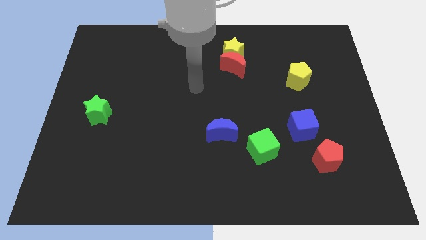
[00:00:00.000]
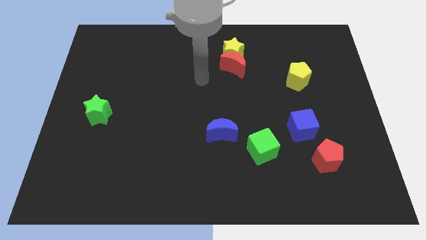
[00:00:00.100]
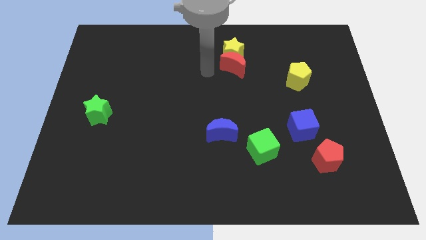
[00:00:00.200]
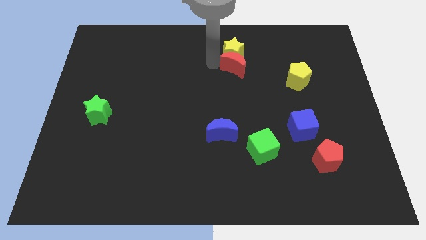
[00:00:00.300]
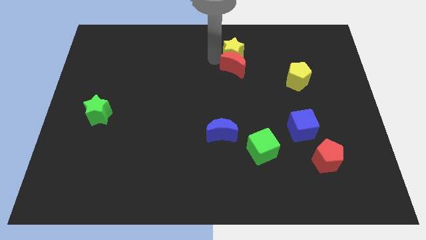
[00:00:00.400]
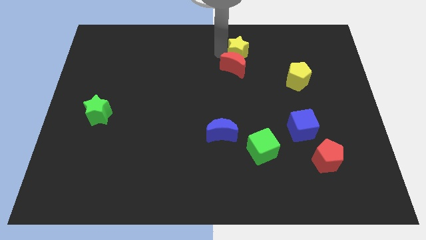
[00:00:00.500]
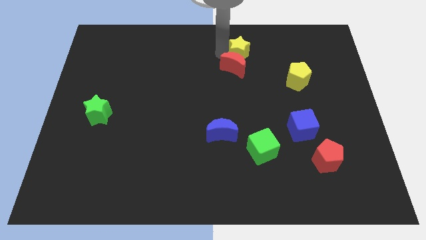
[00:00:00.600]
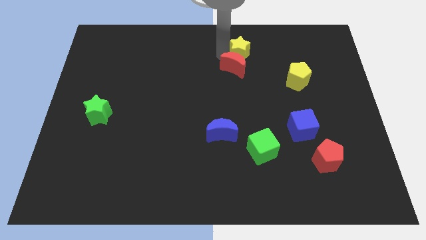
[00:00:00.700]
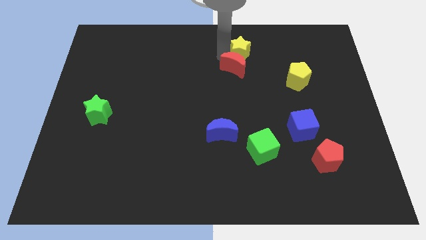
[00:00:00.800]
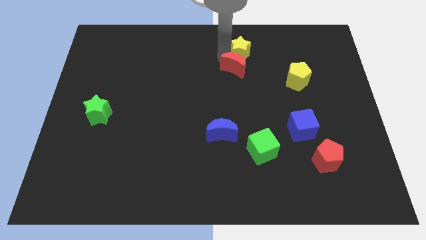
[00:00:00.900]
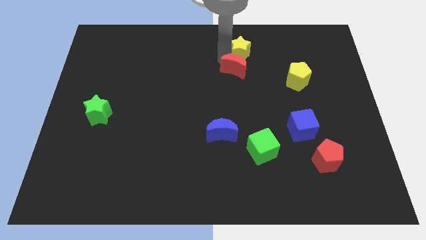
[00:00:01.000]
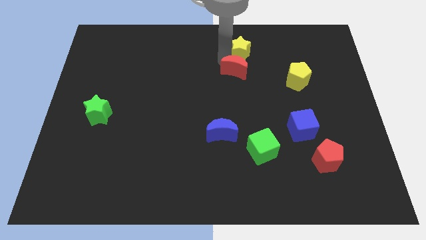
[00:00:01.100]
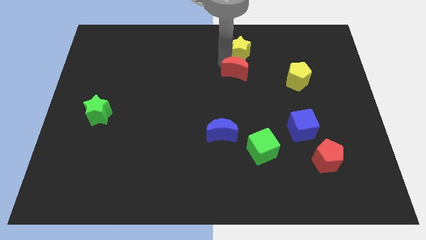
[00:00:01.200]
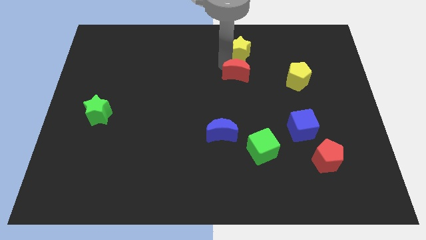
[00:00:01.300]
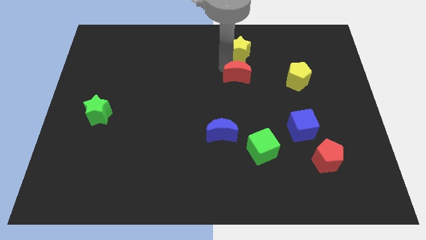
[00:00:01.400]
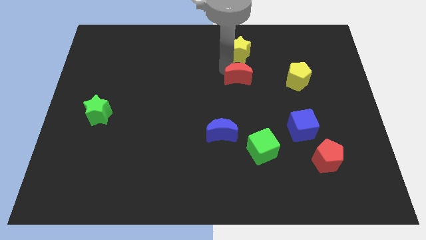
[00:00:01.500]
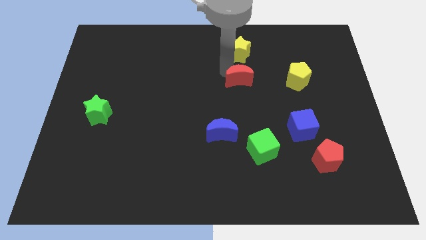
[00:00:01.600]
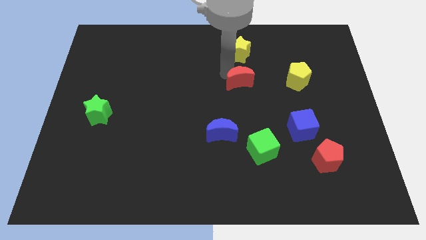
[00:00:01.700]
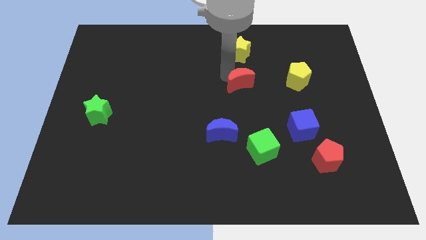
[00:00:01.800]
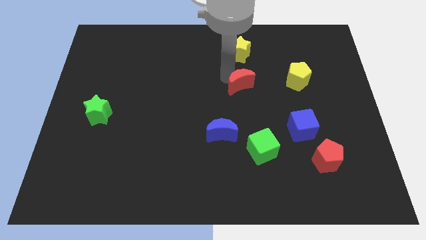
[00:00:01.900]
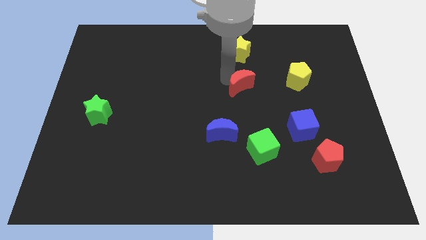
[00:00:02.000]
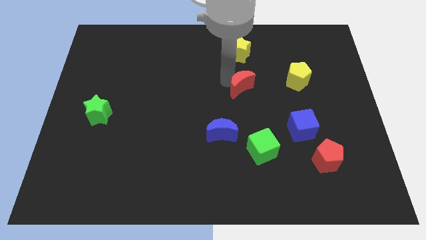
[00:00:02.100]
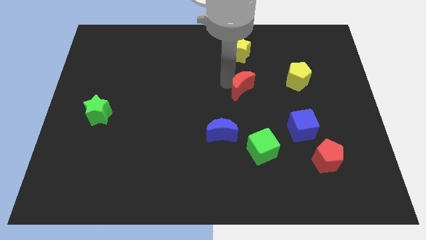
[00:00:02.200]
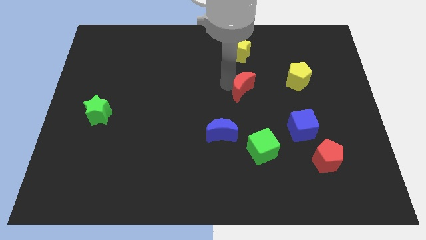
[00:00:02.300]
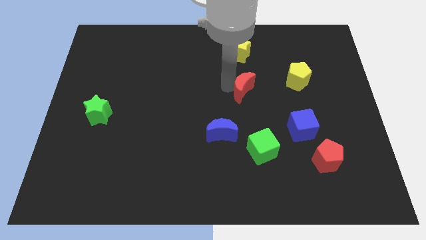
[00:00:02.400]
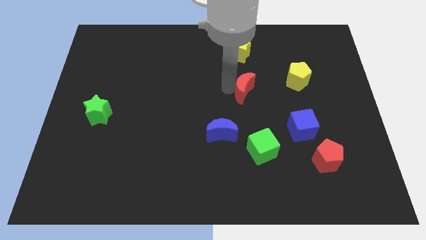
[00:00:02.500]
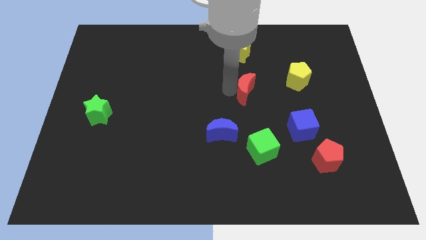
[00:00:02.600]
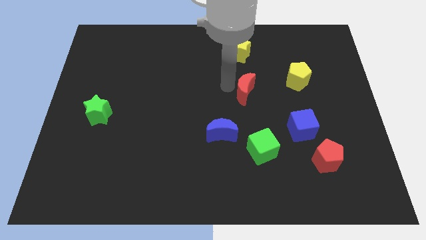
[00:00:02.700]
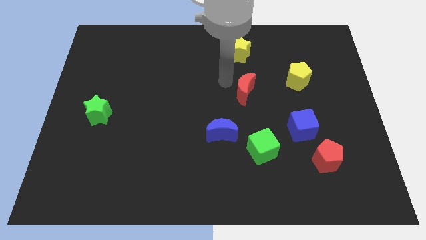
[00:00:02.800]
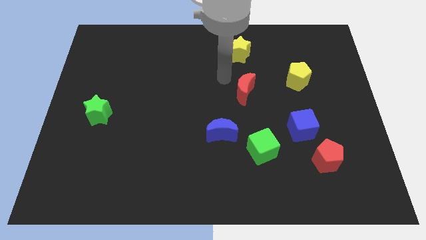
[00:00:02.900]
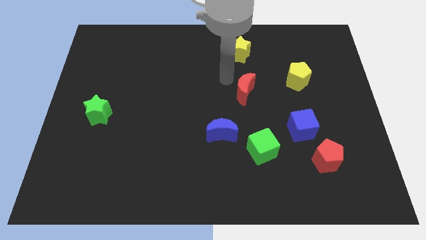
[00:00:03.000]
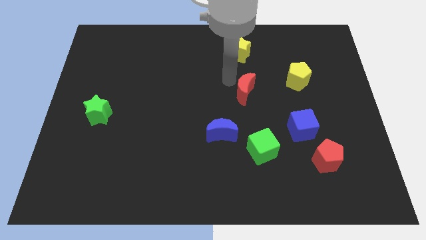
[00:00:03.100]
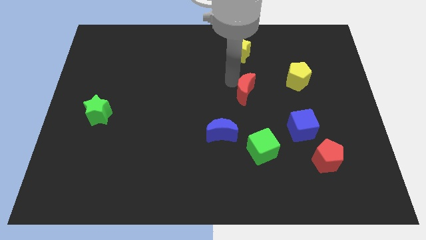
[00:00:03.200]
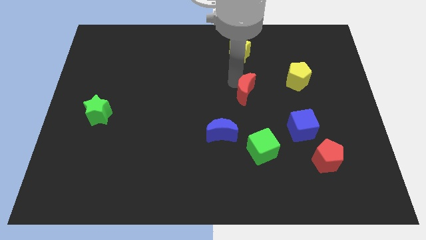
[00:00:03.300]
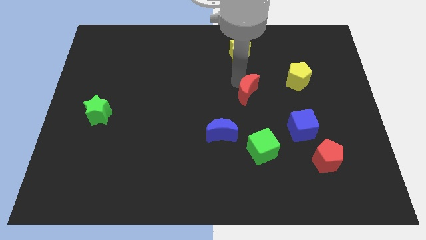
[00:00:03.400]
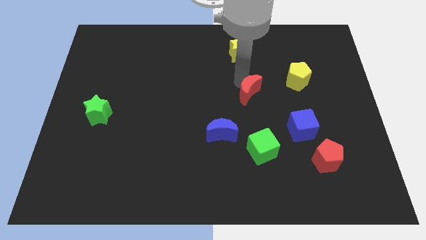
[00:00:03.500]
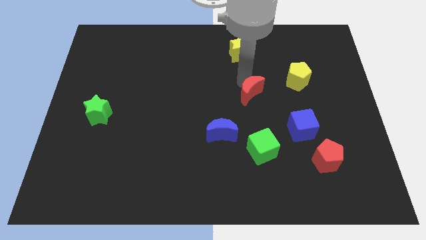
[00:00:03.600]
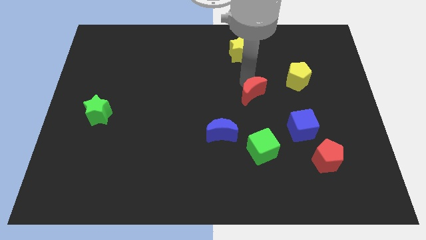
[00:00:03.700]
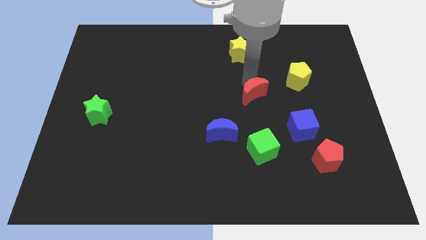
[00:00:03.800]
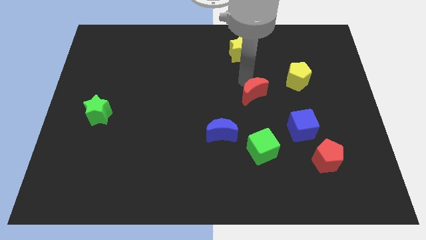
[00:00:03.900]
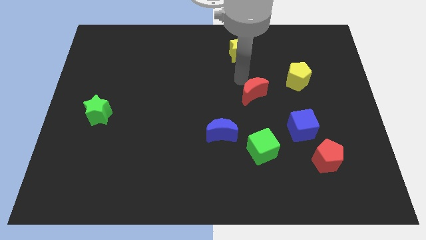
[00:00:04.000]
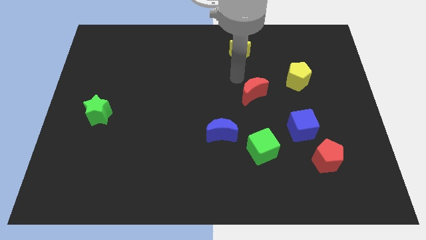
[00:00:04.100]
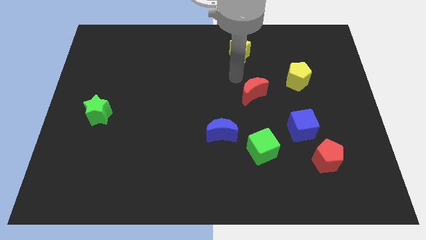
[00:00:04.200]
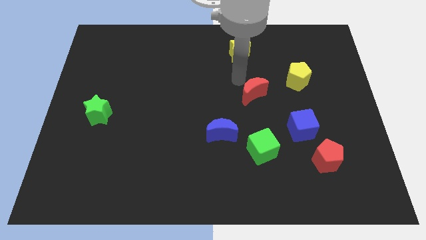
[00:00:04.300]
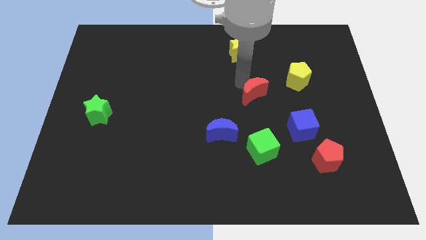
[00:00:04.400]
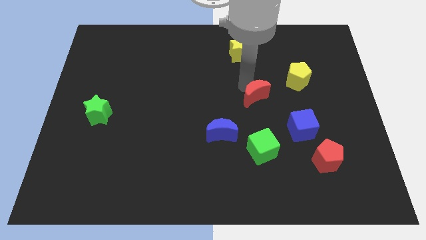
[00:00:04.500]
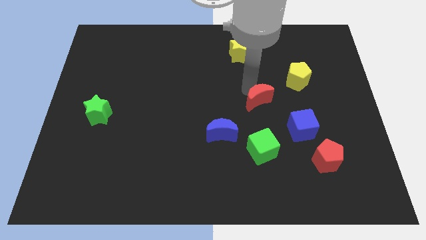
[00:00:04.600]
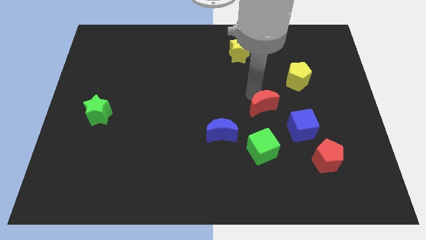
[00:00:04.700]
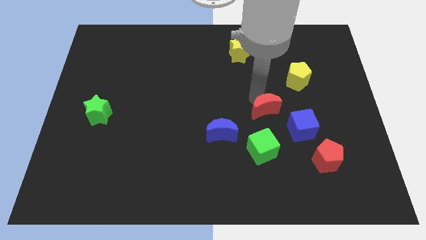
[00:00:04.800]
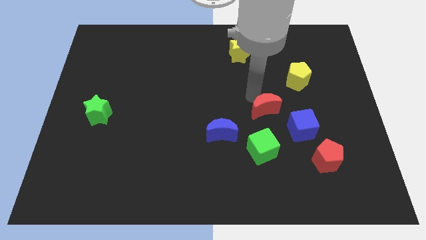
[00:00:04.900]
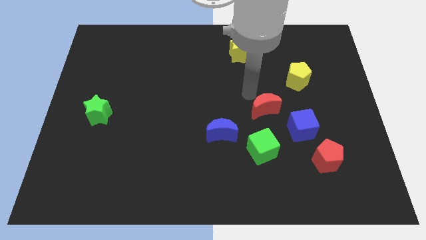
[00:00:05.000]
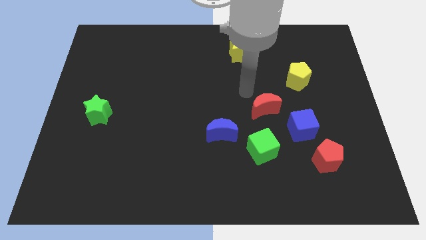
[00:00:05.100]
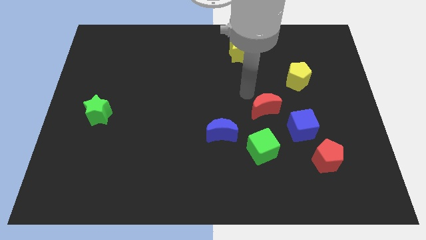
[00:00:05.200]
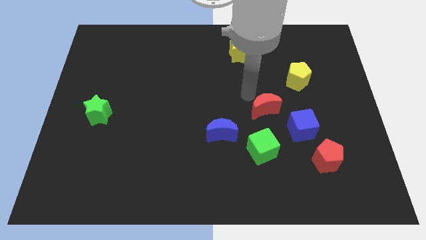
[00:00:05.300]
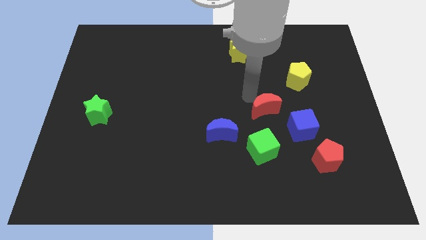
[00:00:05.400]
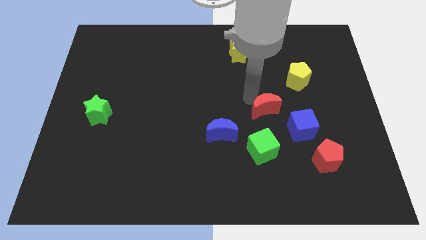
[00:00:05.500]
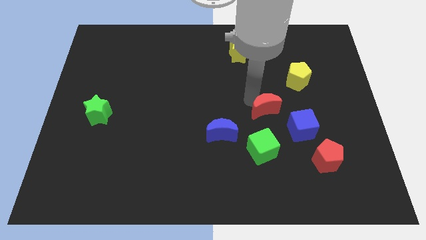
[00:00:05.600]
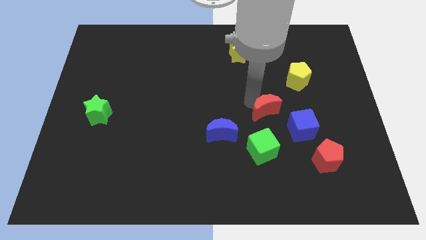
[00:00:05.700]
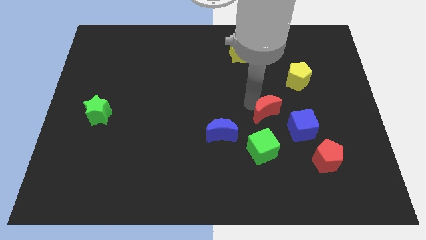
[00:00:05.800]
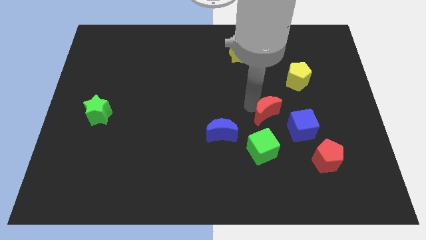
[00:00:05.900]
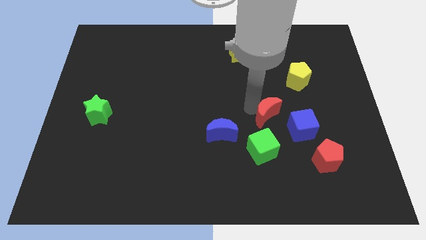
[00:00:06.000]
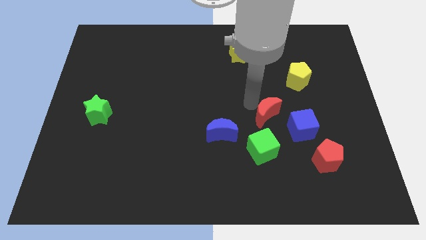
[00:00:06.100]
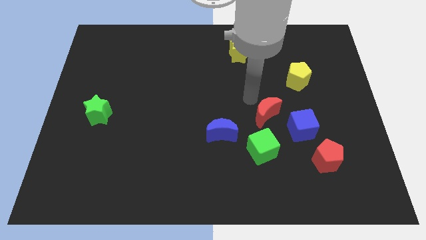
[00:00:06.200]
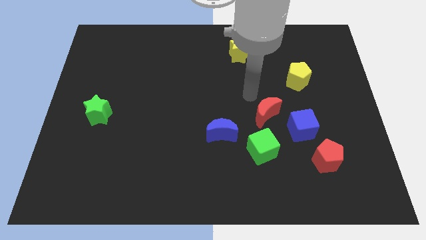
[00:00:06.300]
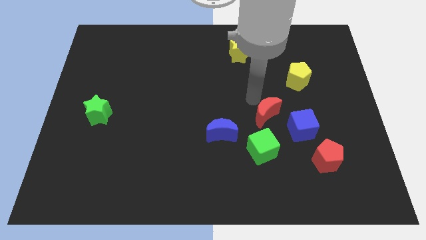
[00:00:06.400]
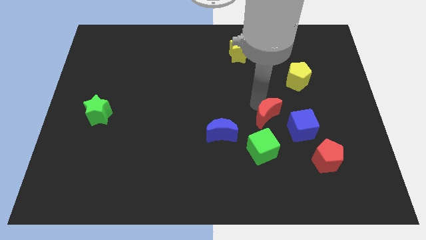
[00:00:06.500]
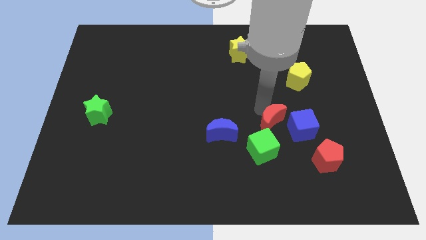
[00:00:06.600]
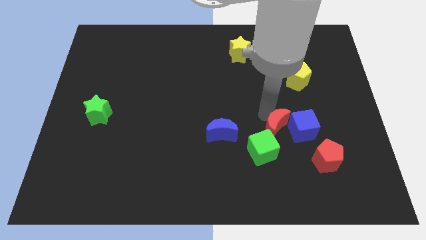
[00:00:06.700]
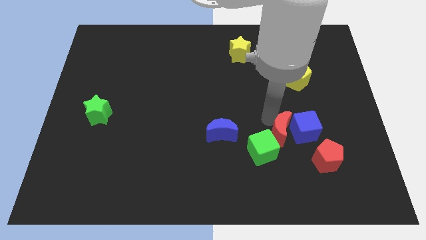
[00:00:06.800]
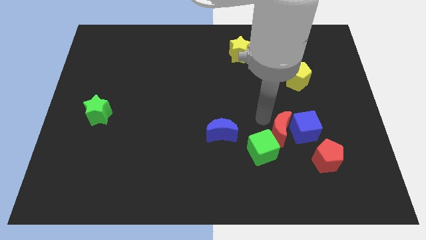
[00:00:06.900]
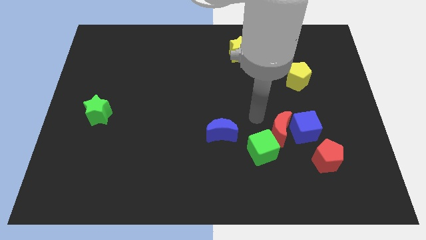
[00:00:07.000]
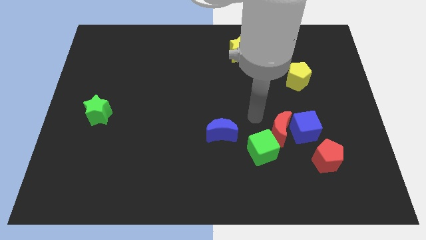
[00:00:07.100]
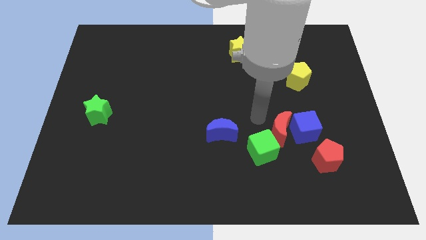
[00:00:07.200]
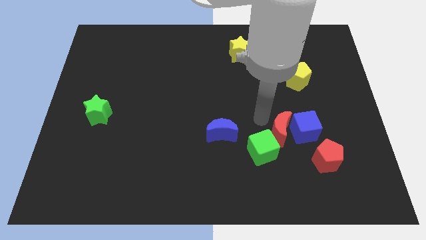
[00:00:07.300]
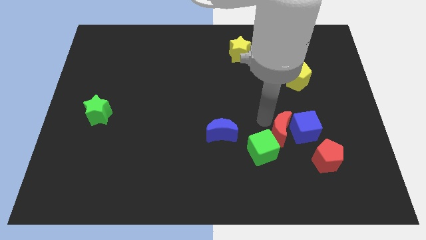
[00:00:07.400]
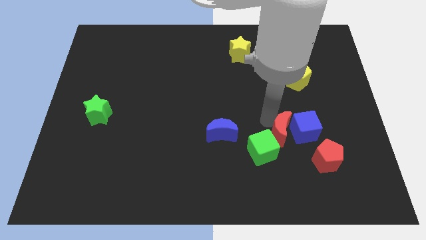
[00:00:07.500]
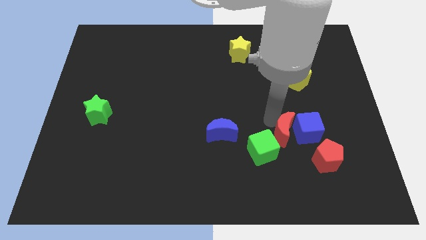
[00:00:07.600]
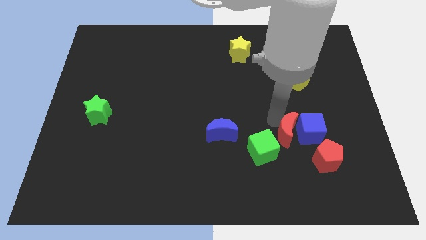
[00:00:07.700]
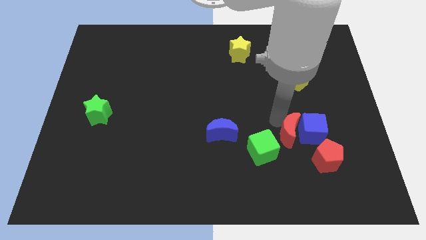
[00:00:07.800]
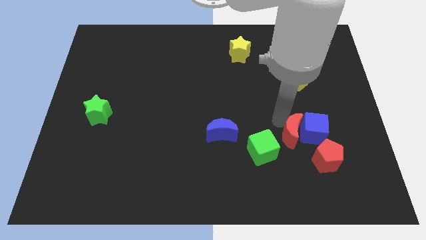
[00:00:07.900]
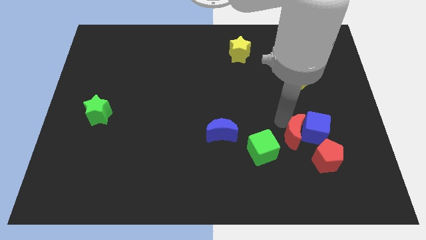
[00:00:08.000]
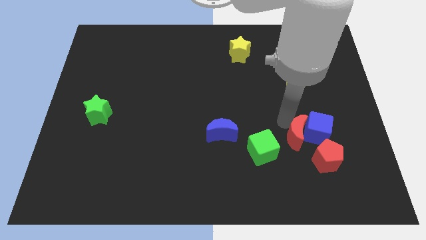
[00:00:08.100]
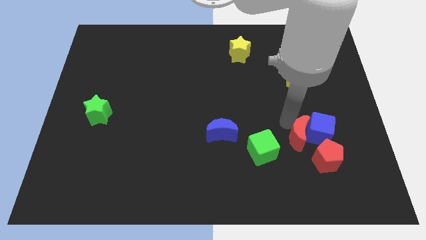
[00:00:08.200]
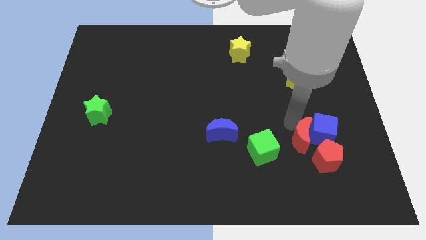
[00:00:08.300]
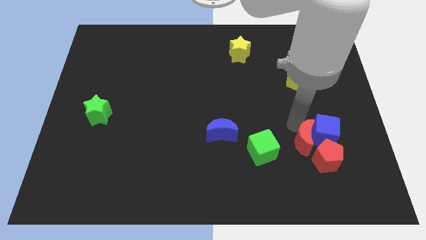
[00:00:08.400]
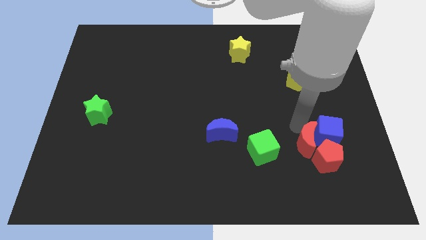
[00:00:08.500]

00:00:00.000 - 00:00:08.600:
push the red moon close to the red pentagon

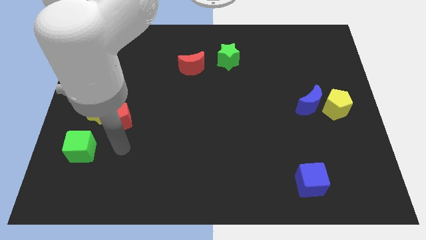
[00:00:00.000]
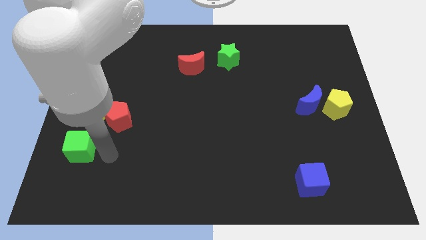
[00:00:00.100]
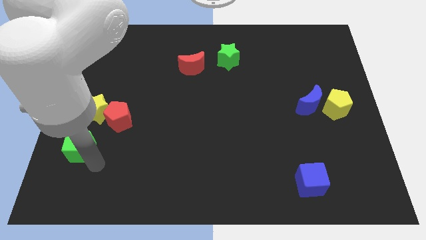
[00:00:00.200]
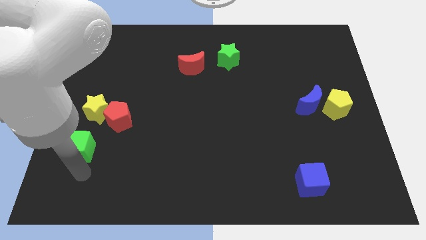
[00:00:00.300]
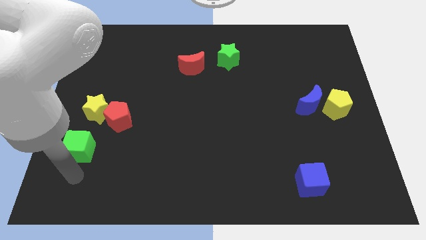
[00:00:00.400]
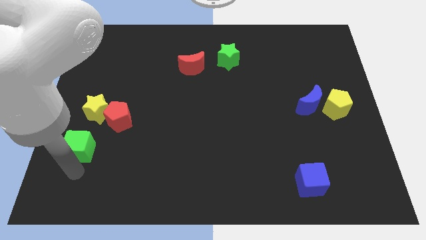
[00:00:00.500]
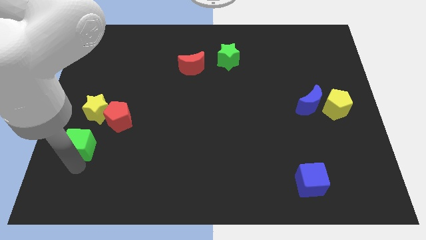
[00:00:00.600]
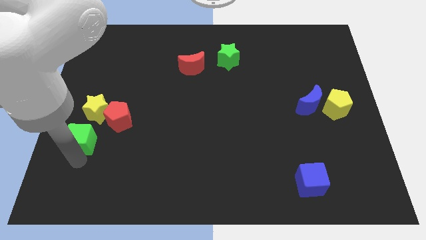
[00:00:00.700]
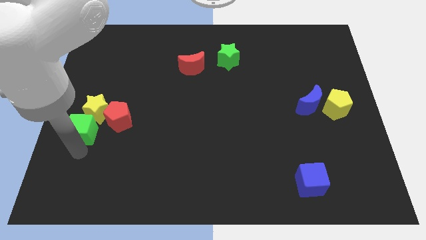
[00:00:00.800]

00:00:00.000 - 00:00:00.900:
push the green cube towards the yellow star
